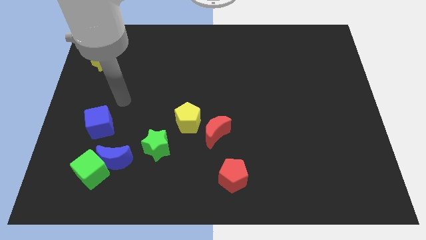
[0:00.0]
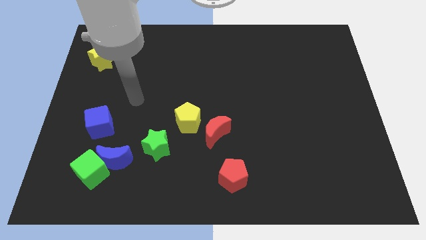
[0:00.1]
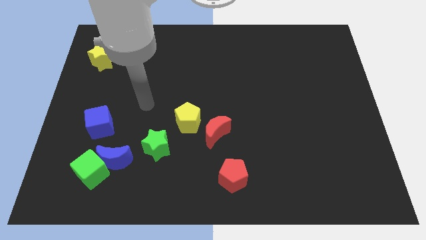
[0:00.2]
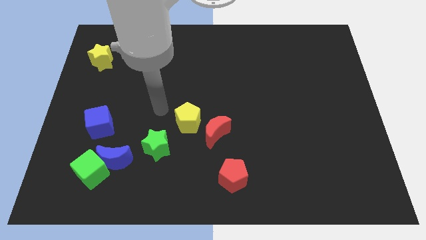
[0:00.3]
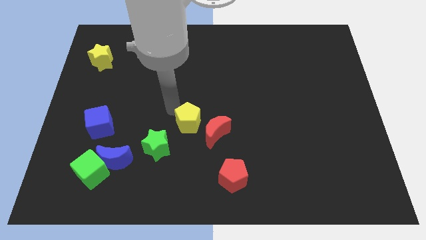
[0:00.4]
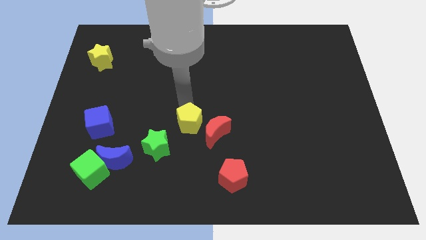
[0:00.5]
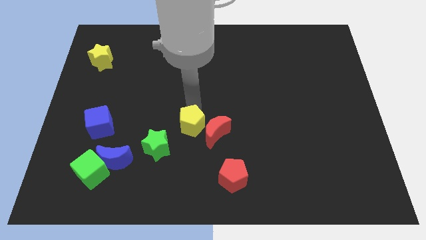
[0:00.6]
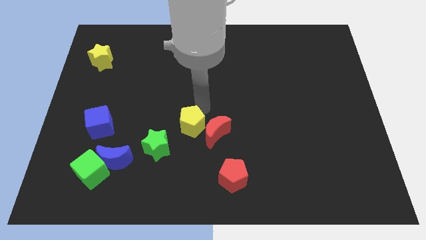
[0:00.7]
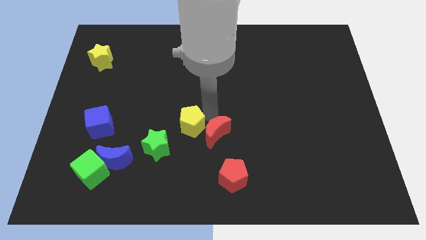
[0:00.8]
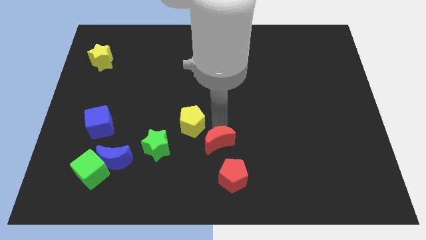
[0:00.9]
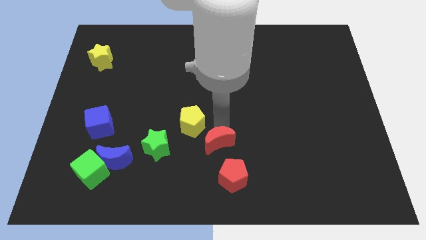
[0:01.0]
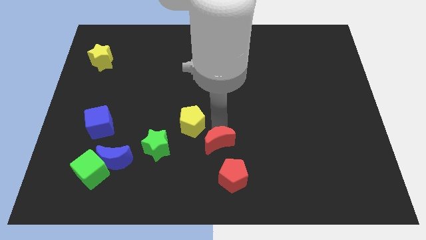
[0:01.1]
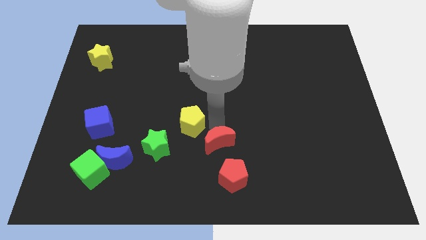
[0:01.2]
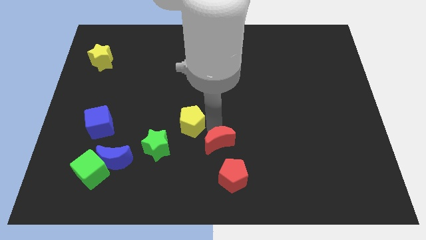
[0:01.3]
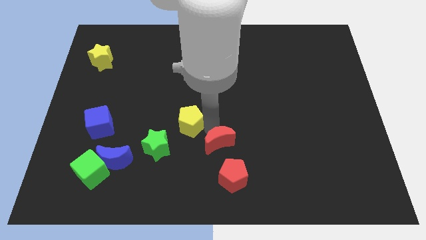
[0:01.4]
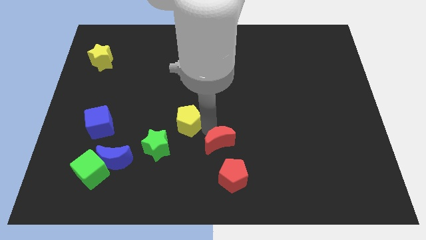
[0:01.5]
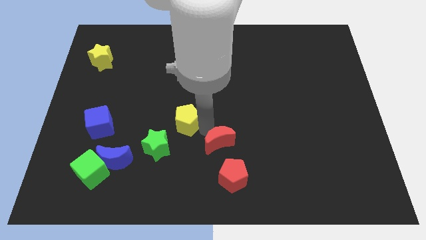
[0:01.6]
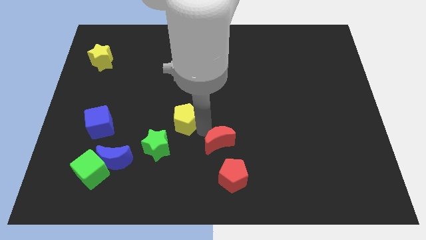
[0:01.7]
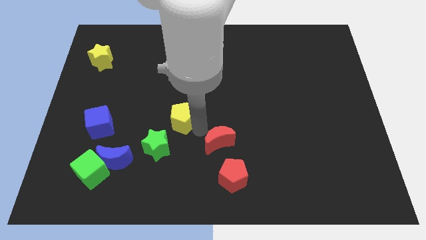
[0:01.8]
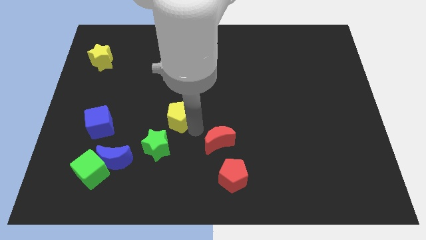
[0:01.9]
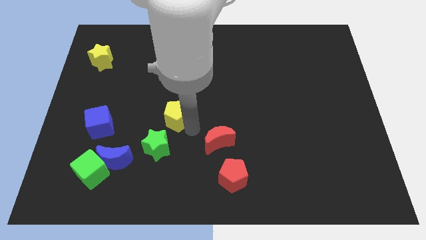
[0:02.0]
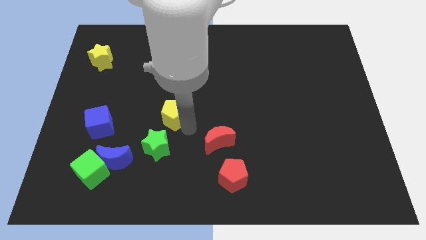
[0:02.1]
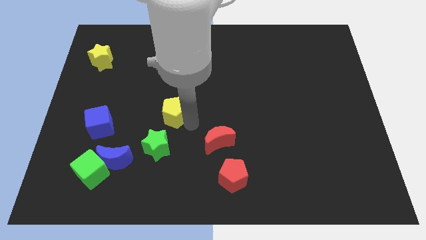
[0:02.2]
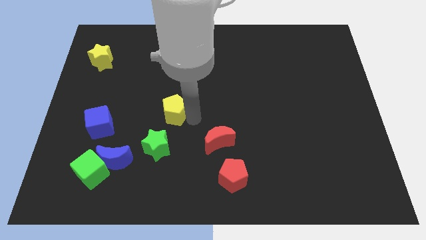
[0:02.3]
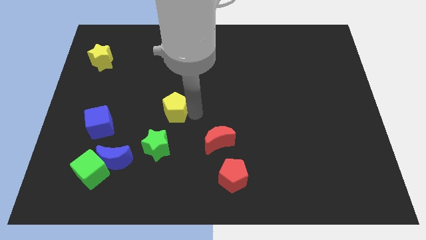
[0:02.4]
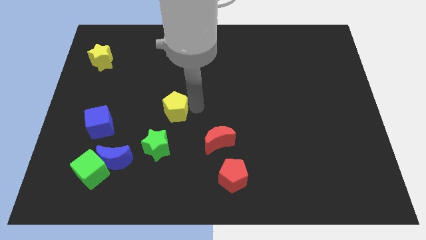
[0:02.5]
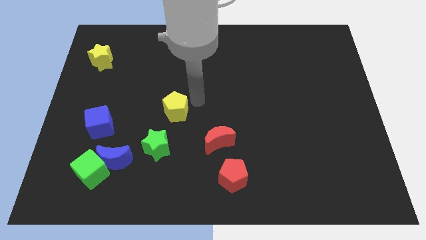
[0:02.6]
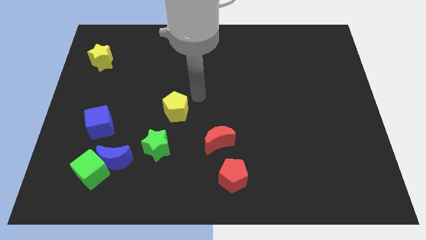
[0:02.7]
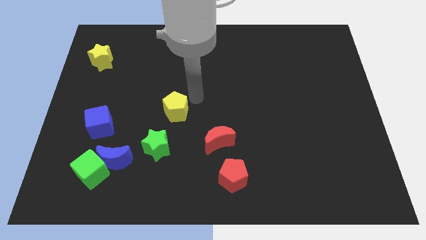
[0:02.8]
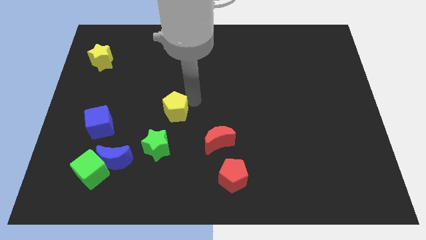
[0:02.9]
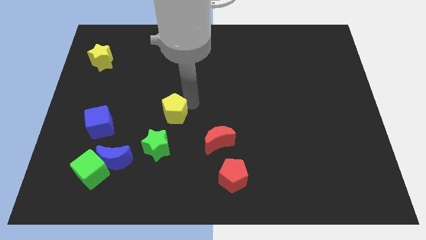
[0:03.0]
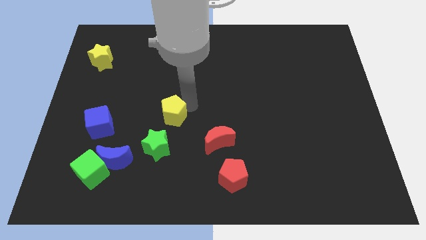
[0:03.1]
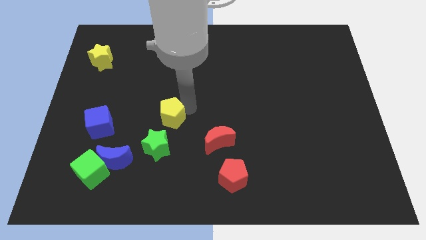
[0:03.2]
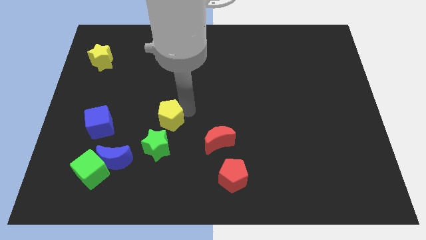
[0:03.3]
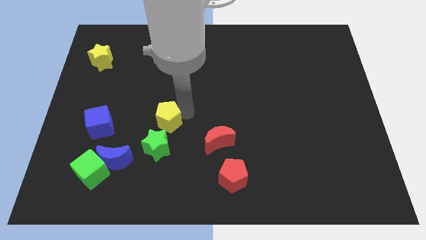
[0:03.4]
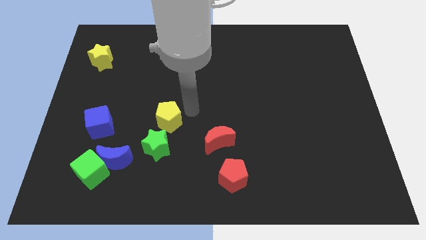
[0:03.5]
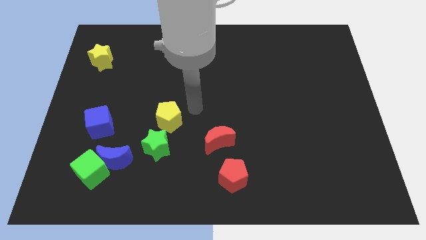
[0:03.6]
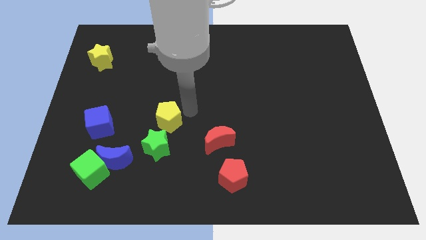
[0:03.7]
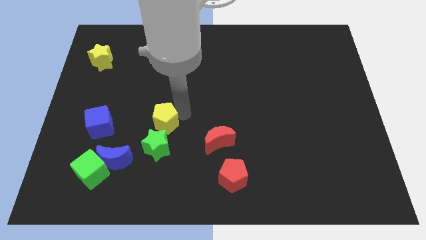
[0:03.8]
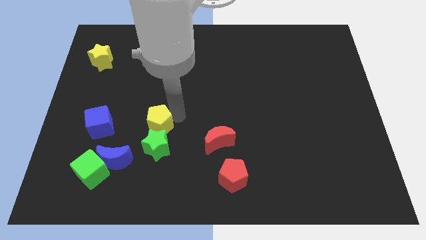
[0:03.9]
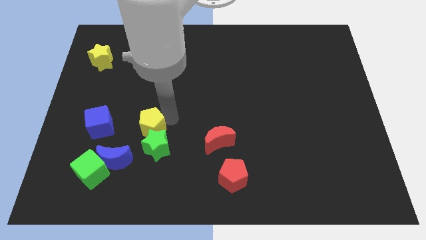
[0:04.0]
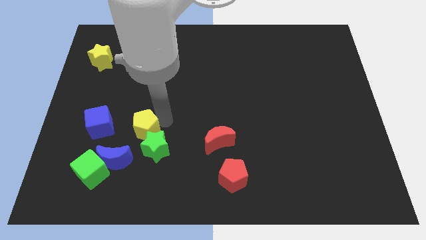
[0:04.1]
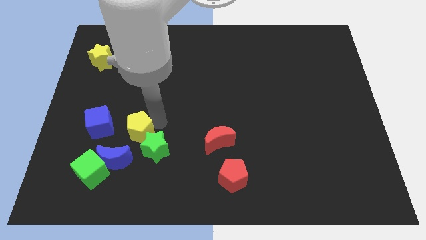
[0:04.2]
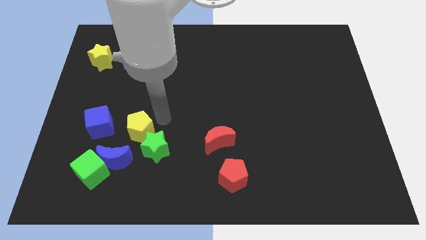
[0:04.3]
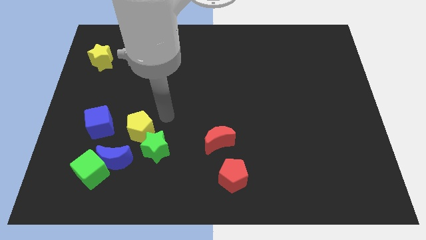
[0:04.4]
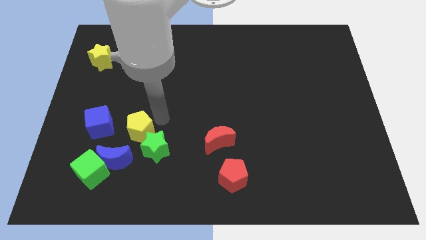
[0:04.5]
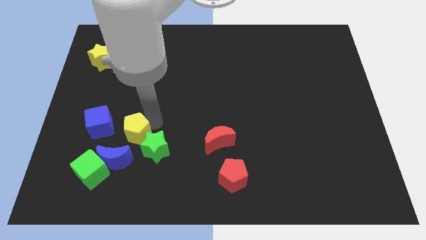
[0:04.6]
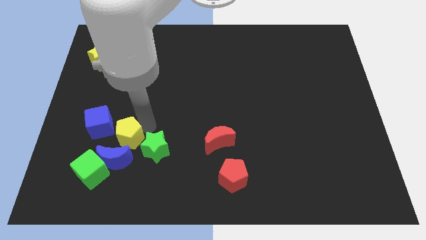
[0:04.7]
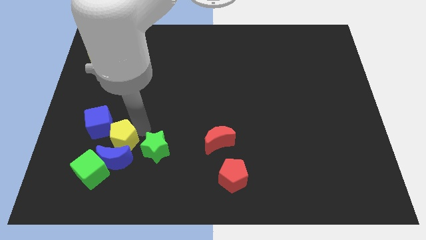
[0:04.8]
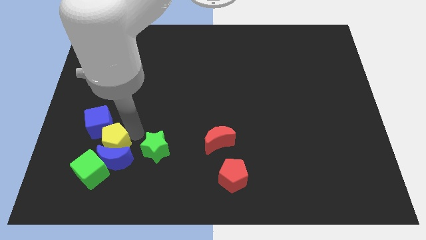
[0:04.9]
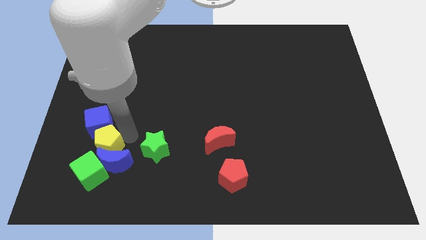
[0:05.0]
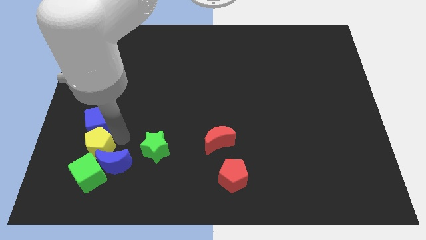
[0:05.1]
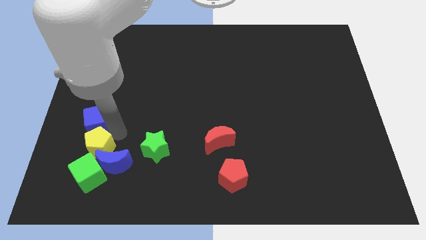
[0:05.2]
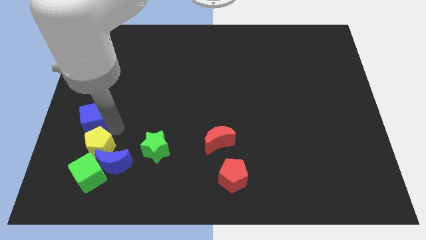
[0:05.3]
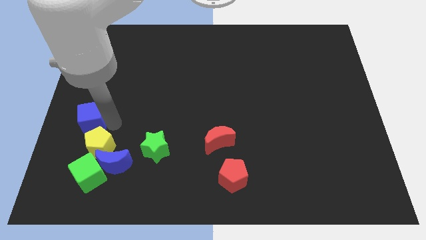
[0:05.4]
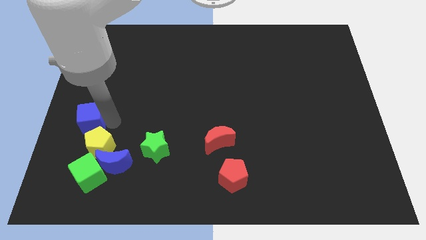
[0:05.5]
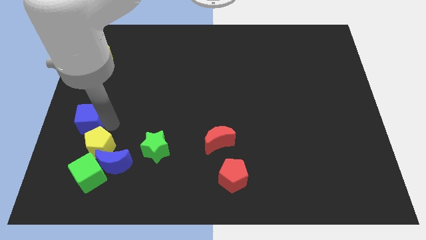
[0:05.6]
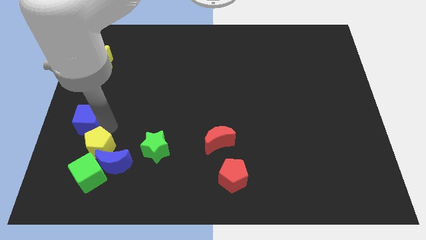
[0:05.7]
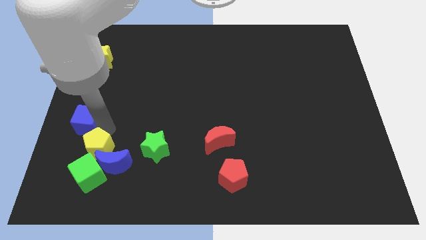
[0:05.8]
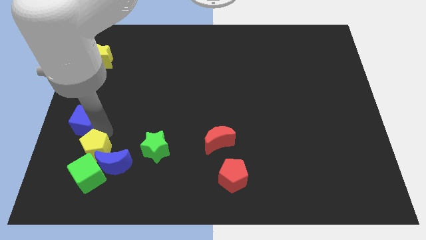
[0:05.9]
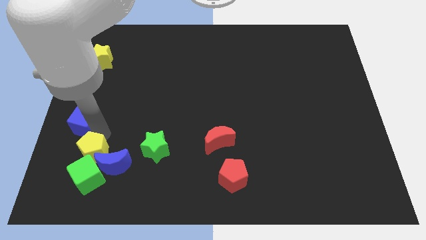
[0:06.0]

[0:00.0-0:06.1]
move the yellow pentagon close to the green cube

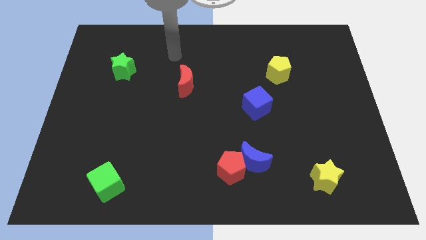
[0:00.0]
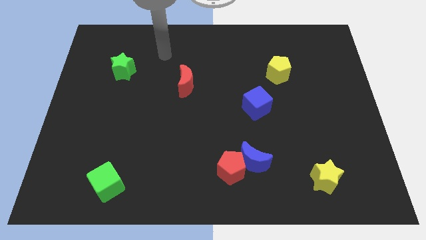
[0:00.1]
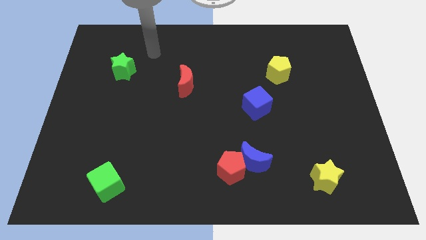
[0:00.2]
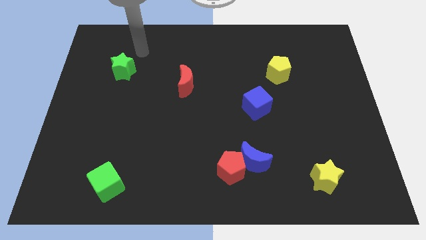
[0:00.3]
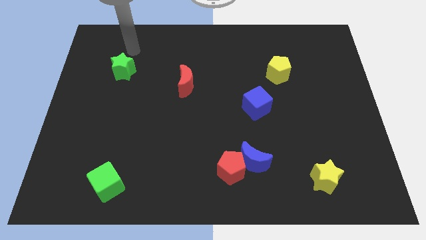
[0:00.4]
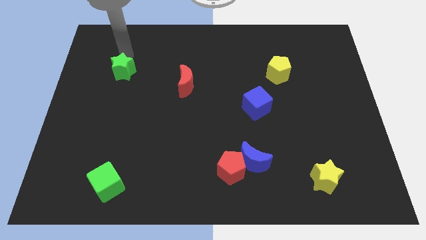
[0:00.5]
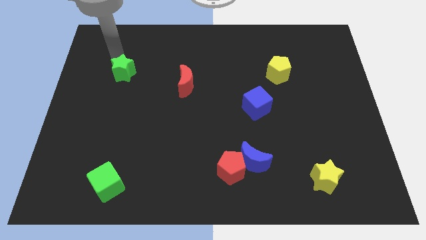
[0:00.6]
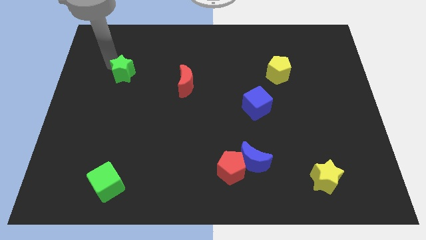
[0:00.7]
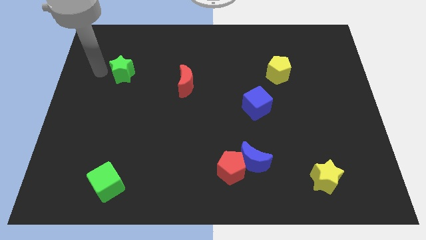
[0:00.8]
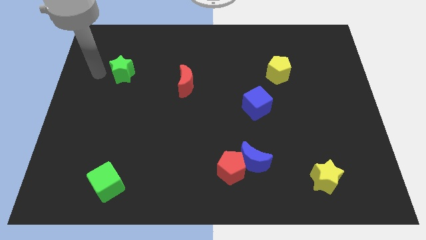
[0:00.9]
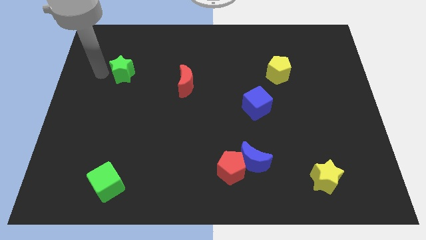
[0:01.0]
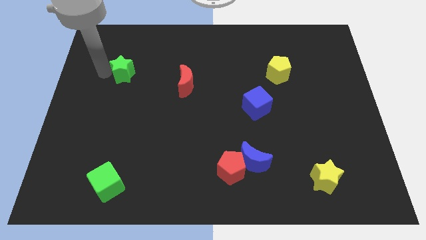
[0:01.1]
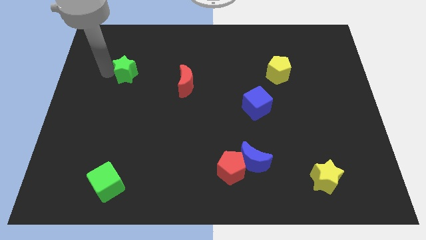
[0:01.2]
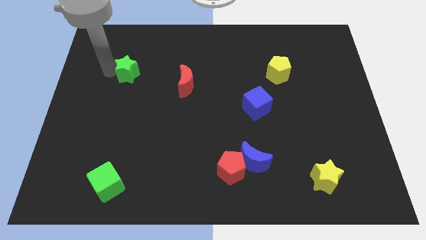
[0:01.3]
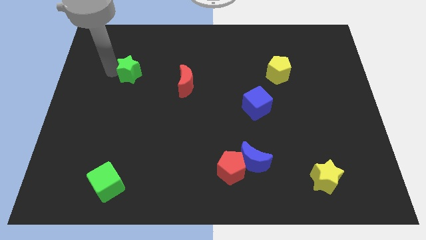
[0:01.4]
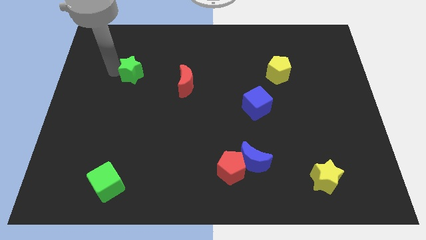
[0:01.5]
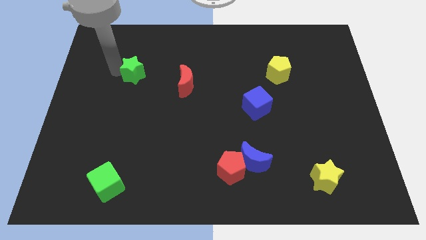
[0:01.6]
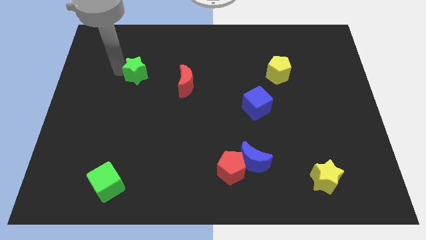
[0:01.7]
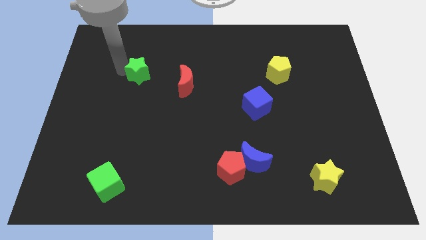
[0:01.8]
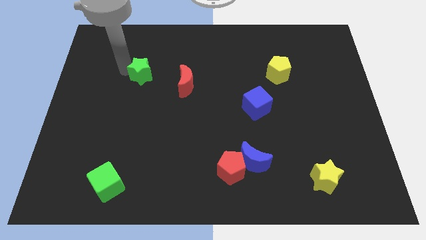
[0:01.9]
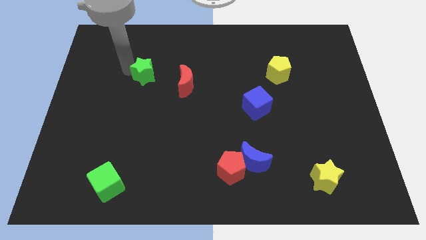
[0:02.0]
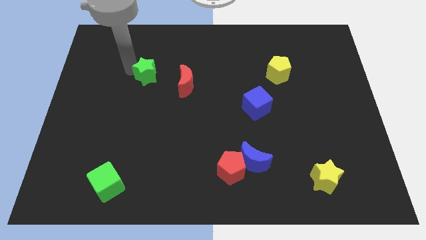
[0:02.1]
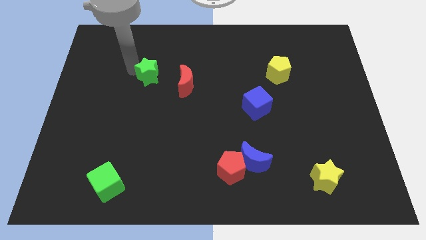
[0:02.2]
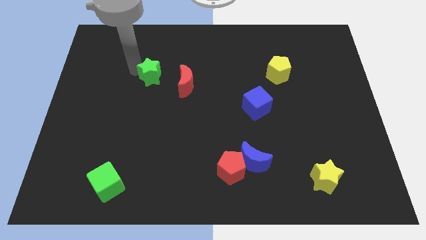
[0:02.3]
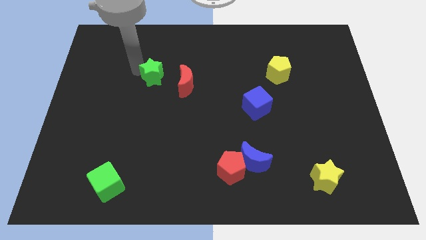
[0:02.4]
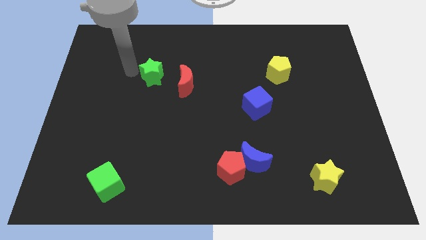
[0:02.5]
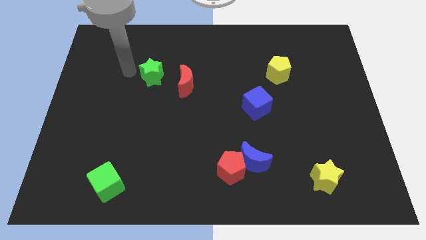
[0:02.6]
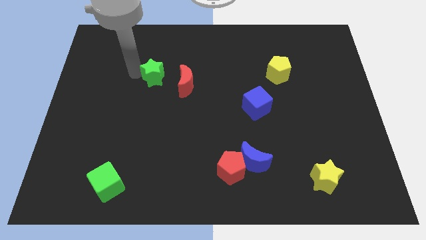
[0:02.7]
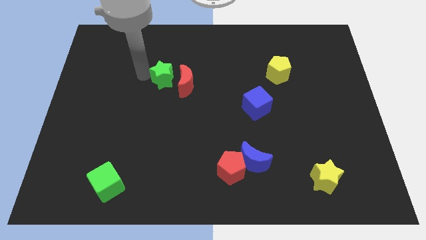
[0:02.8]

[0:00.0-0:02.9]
put the green star to the red moon
